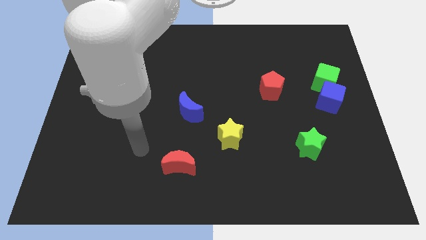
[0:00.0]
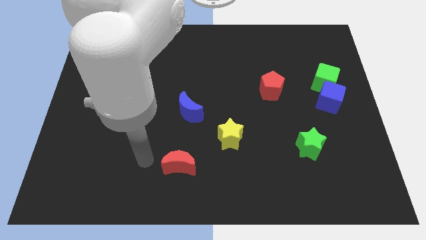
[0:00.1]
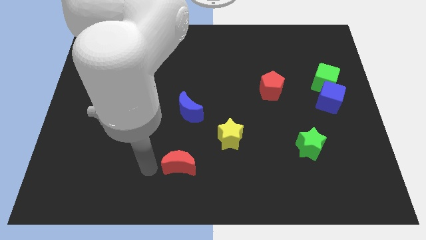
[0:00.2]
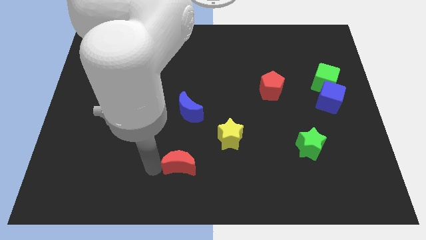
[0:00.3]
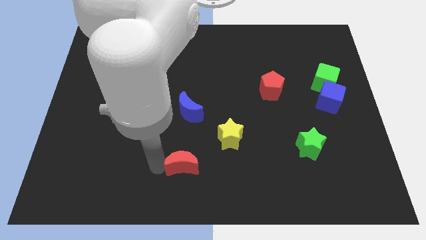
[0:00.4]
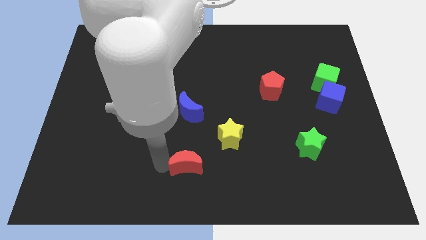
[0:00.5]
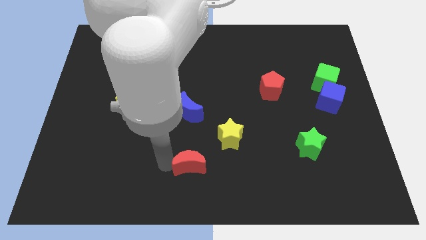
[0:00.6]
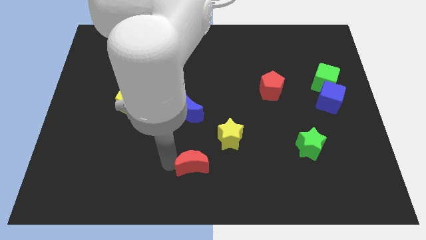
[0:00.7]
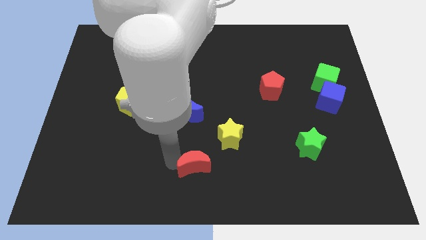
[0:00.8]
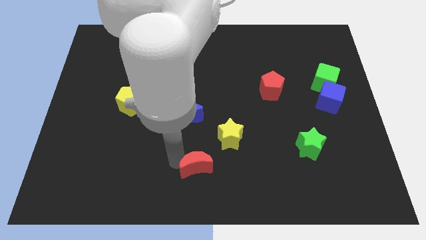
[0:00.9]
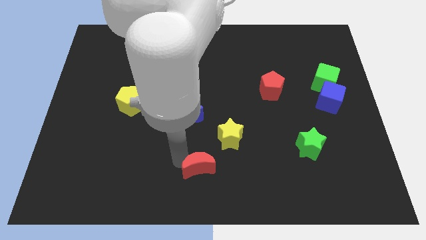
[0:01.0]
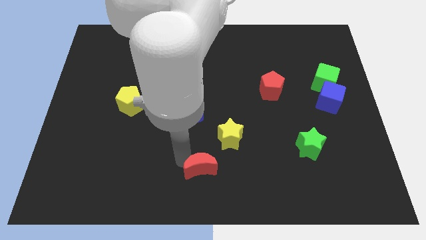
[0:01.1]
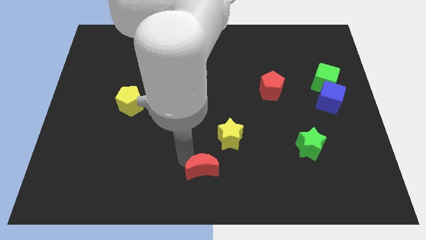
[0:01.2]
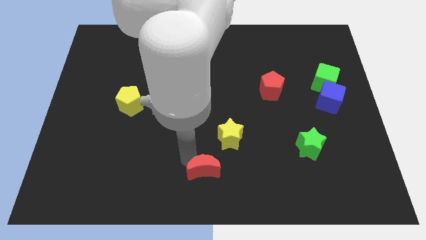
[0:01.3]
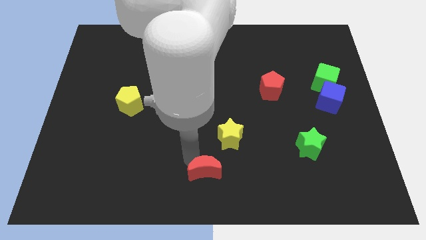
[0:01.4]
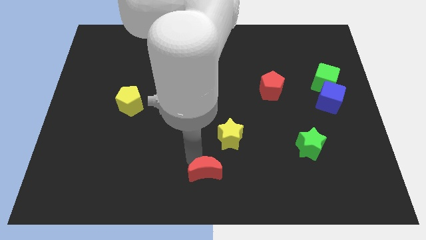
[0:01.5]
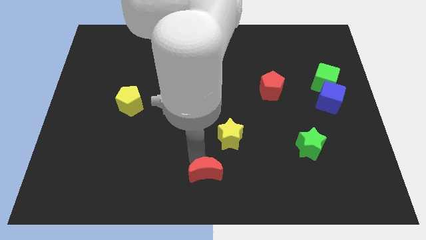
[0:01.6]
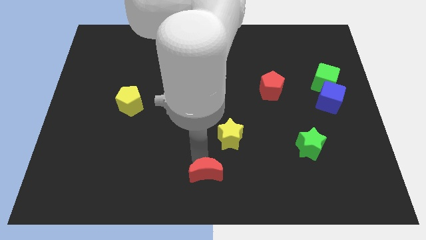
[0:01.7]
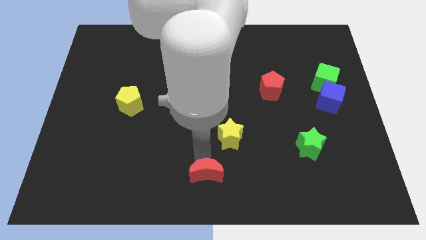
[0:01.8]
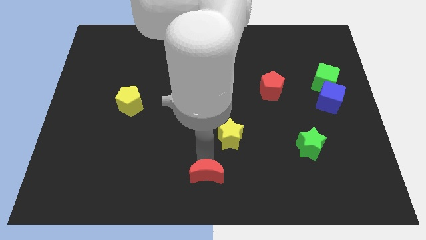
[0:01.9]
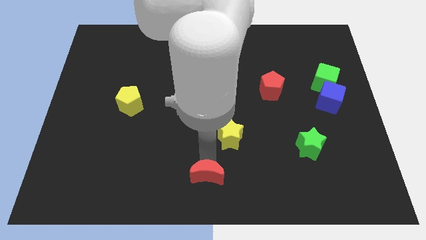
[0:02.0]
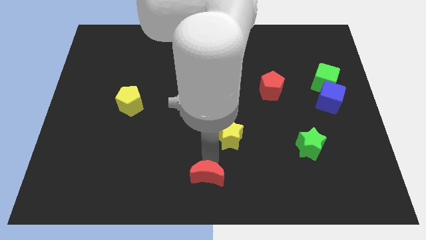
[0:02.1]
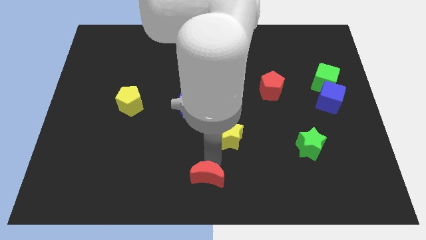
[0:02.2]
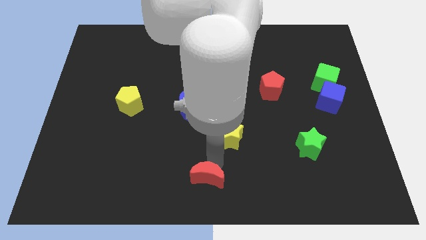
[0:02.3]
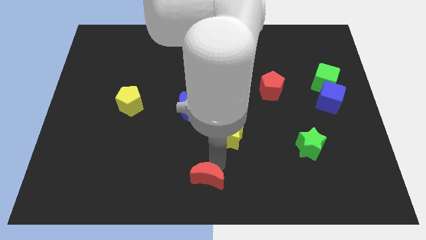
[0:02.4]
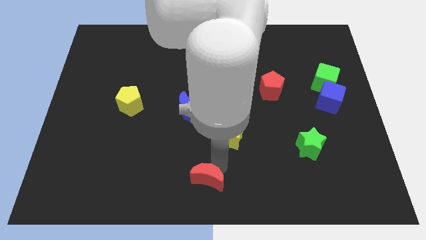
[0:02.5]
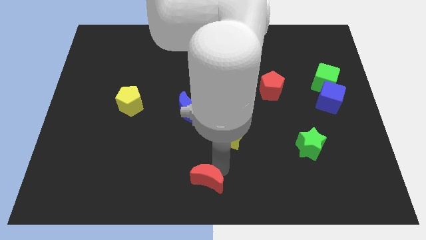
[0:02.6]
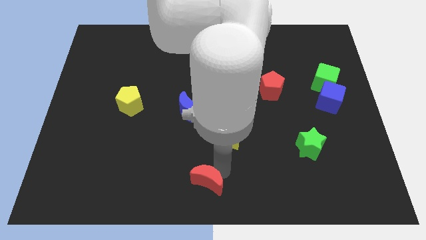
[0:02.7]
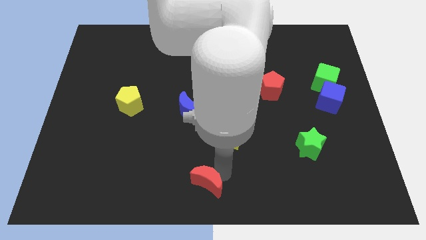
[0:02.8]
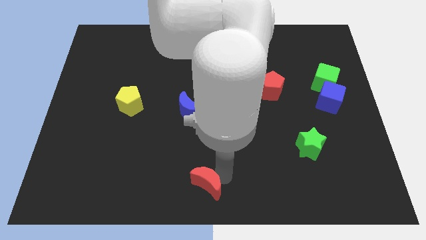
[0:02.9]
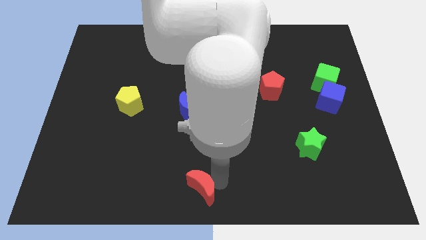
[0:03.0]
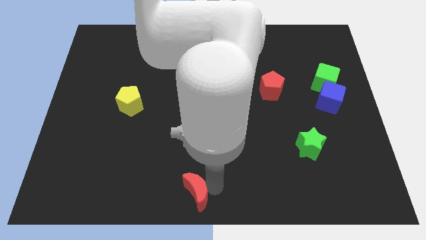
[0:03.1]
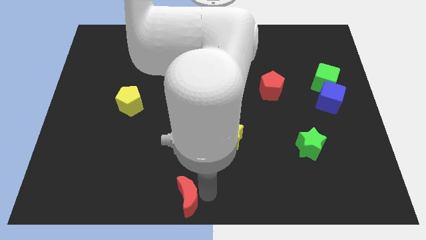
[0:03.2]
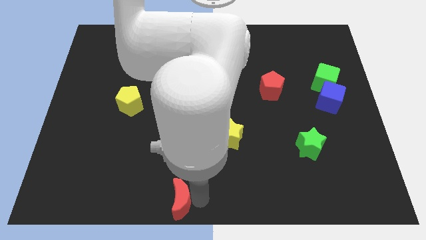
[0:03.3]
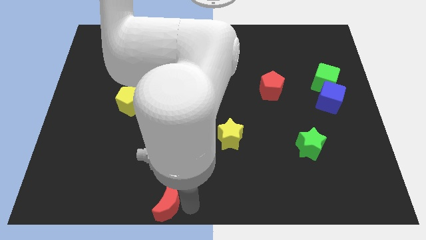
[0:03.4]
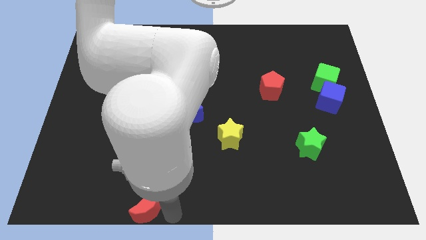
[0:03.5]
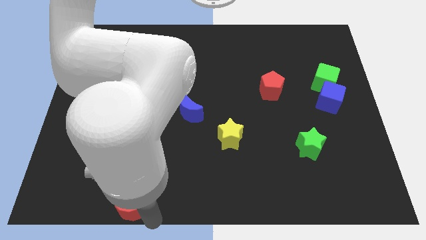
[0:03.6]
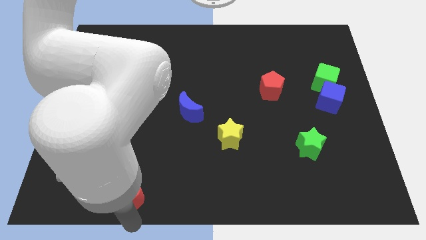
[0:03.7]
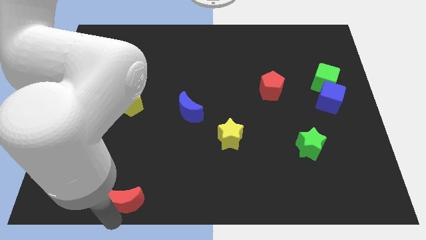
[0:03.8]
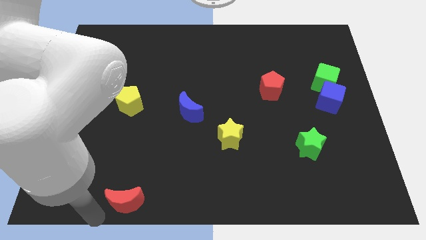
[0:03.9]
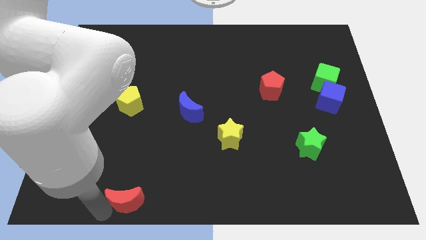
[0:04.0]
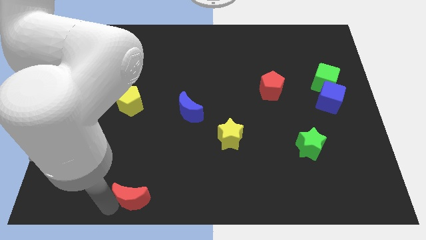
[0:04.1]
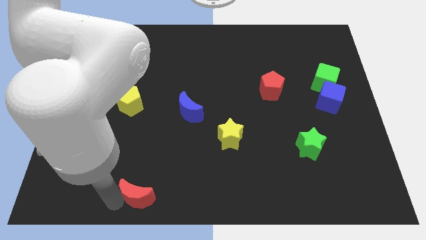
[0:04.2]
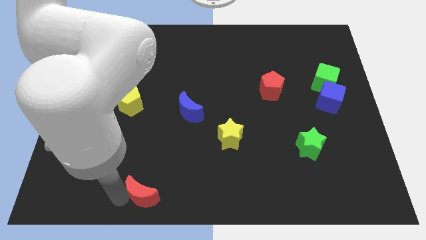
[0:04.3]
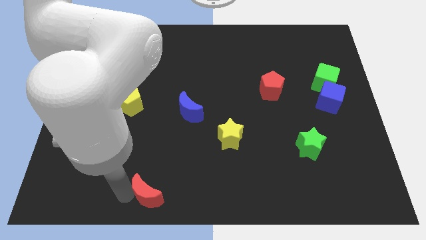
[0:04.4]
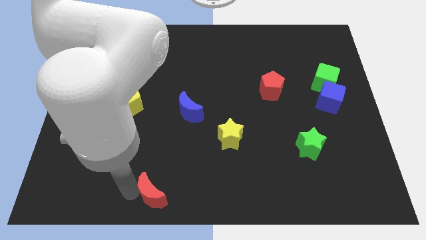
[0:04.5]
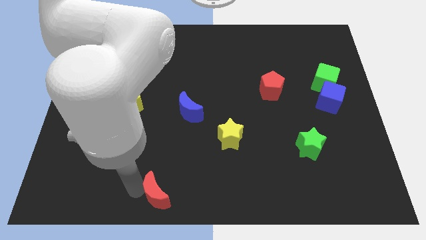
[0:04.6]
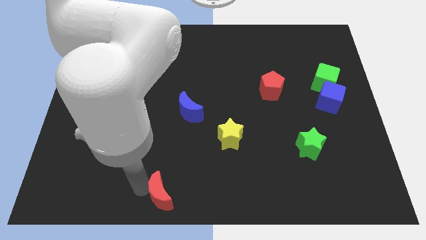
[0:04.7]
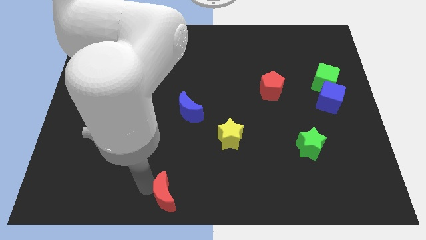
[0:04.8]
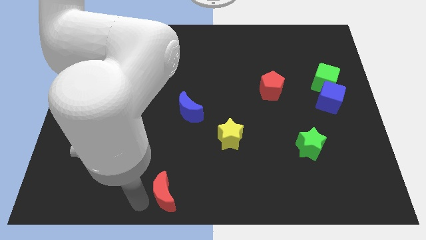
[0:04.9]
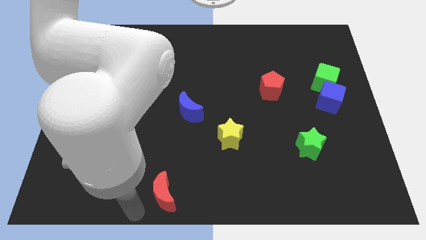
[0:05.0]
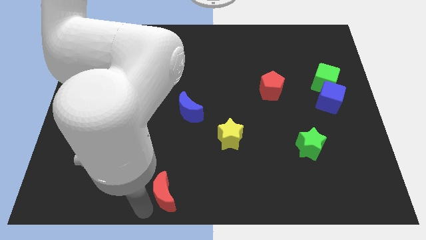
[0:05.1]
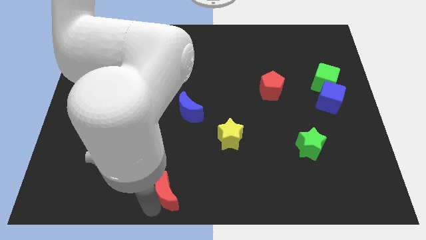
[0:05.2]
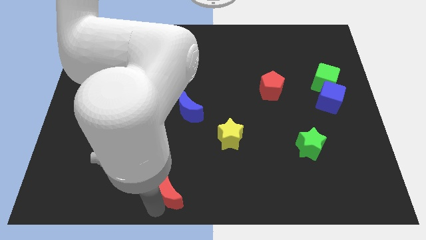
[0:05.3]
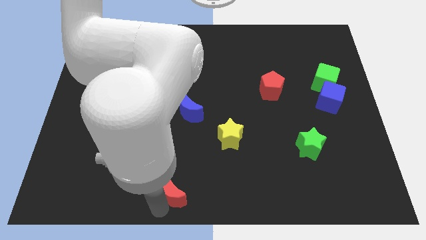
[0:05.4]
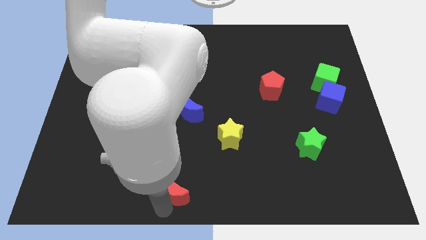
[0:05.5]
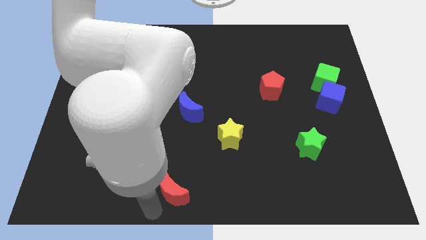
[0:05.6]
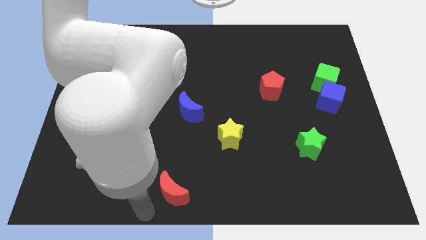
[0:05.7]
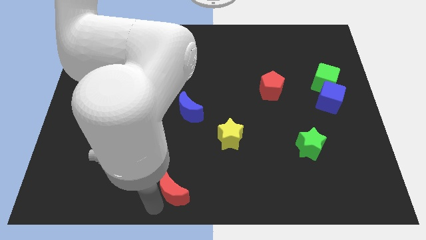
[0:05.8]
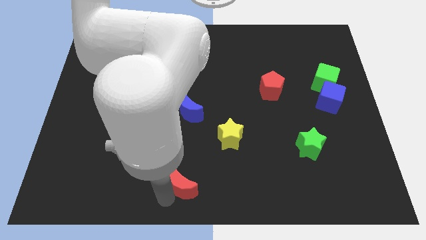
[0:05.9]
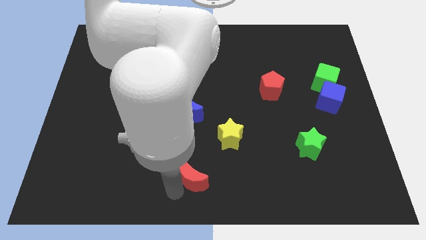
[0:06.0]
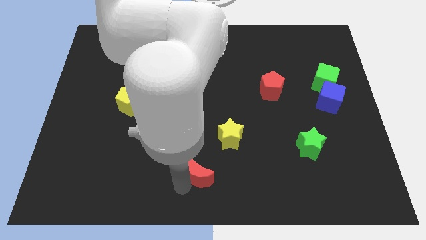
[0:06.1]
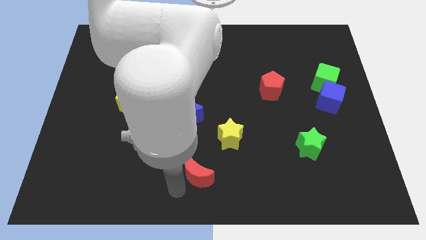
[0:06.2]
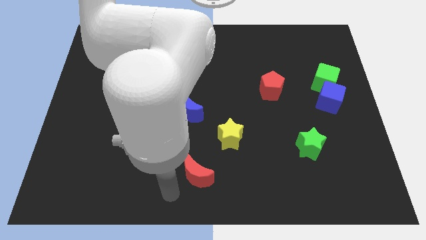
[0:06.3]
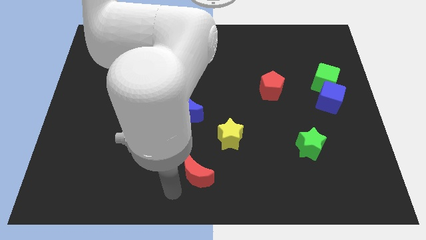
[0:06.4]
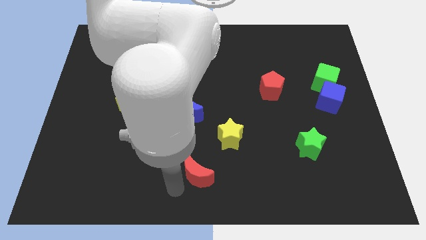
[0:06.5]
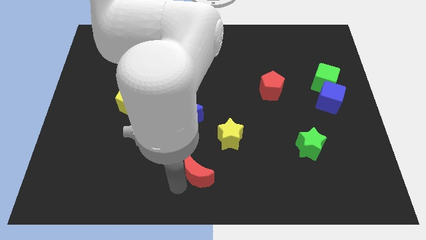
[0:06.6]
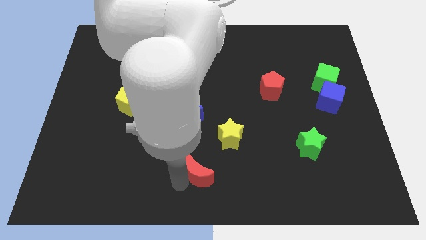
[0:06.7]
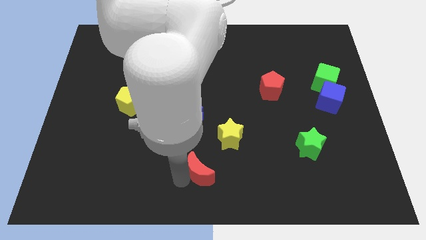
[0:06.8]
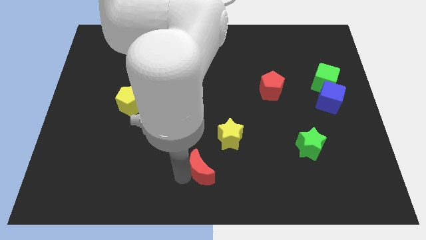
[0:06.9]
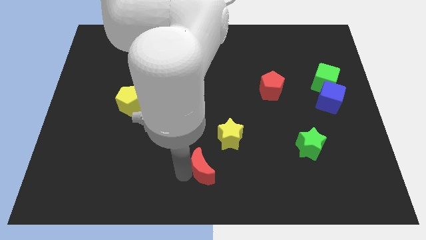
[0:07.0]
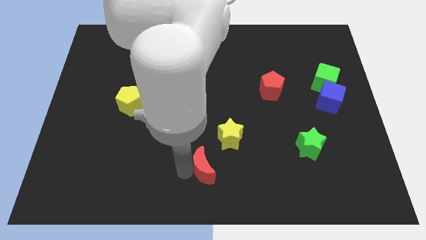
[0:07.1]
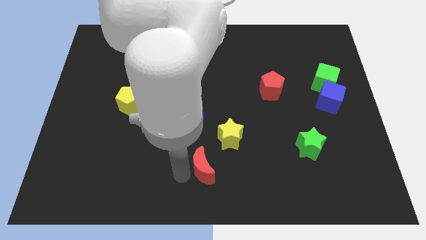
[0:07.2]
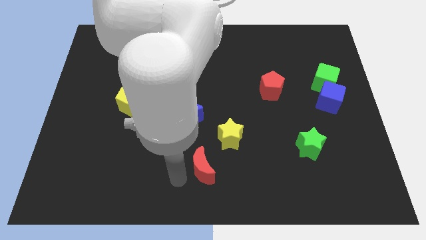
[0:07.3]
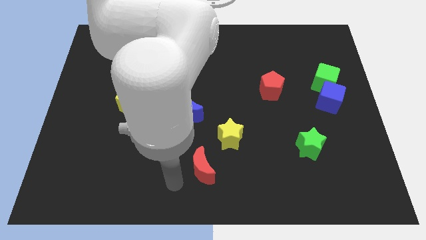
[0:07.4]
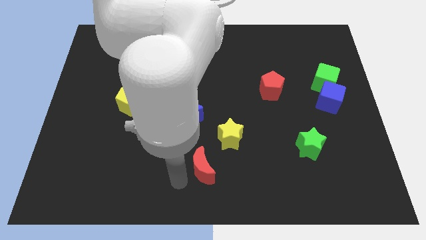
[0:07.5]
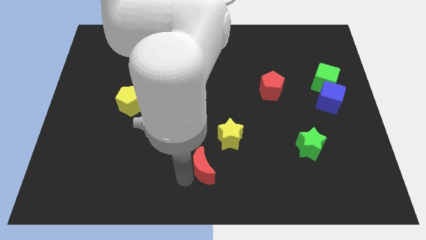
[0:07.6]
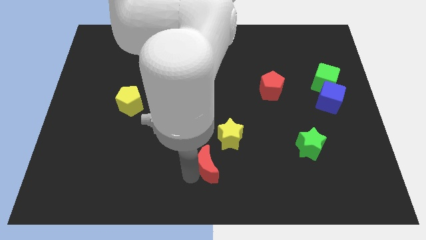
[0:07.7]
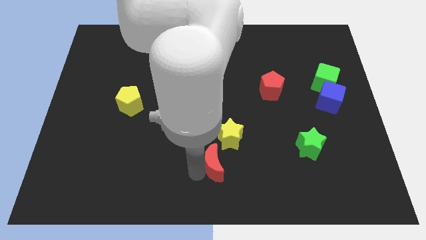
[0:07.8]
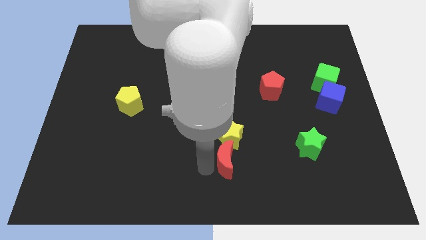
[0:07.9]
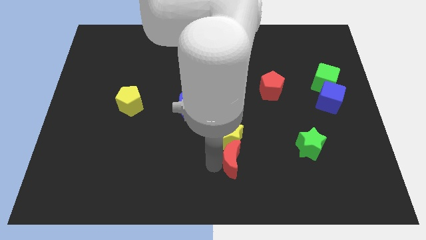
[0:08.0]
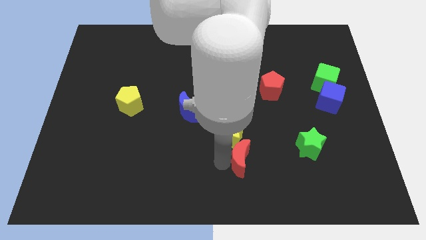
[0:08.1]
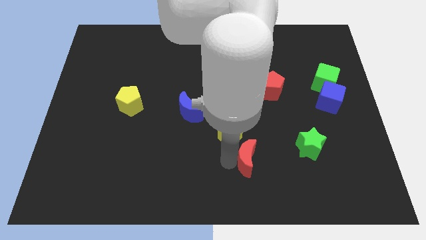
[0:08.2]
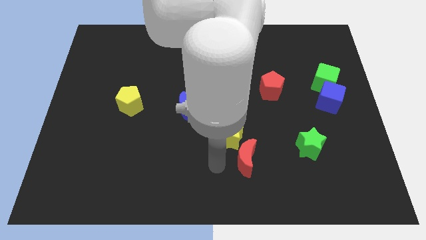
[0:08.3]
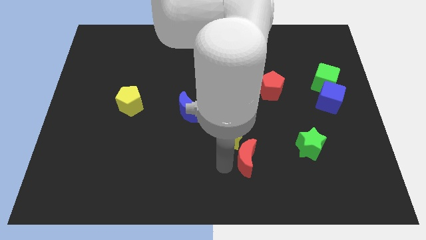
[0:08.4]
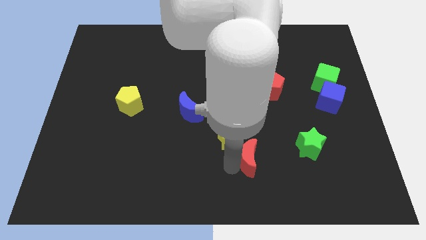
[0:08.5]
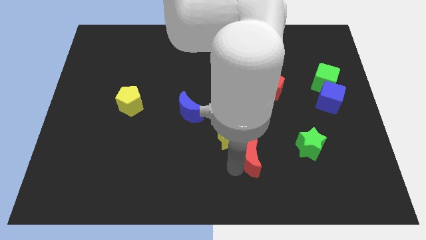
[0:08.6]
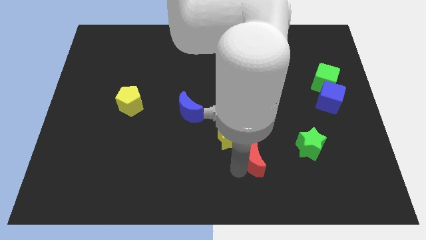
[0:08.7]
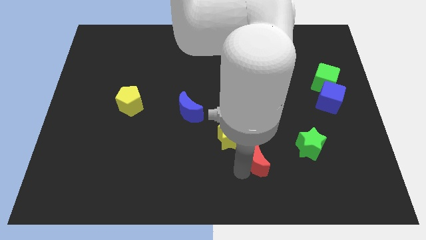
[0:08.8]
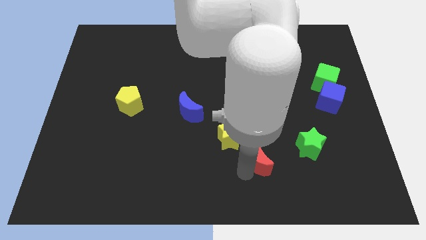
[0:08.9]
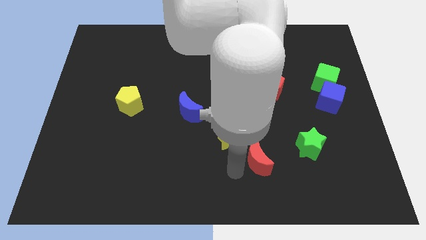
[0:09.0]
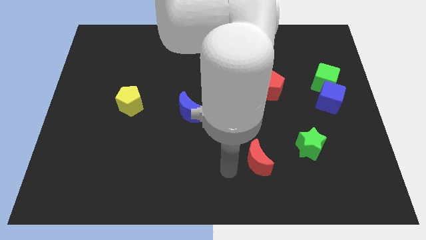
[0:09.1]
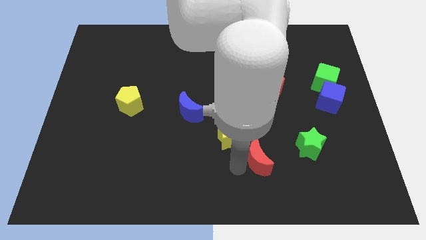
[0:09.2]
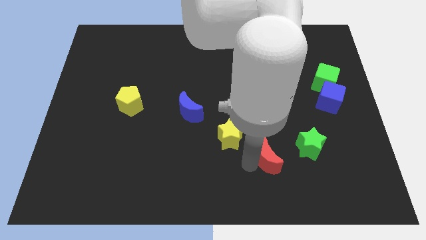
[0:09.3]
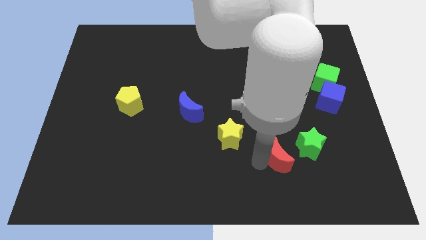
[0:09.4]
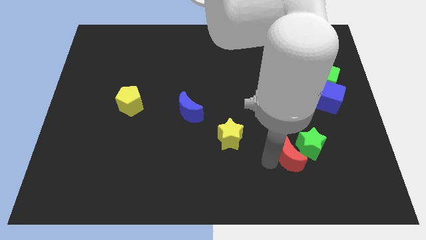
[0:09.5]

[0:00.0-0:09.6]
put the red moon to the green star
